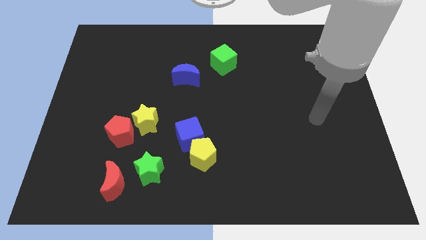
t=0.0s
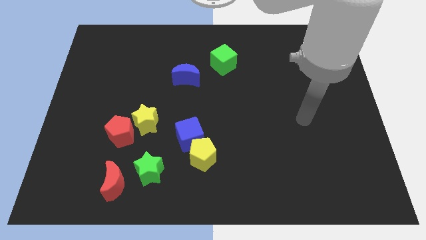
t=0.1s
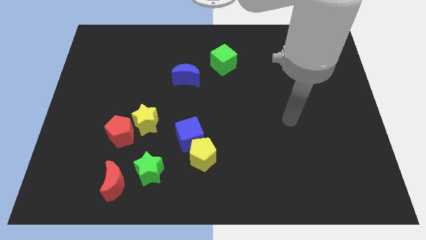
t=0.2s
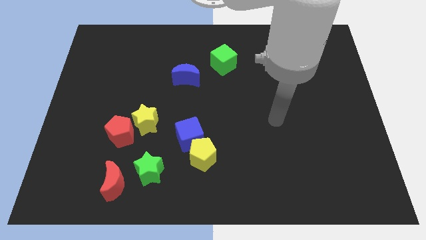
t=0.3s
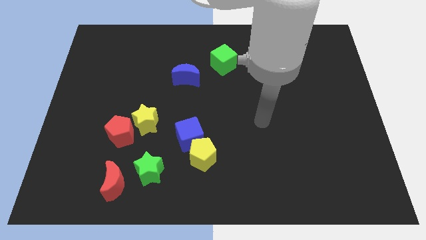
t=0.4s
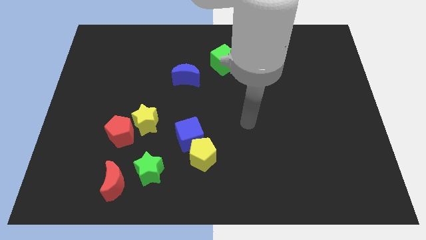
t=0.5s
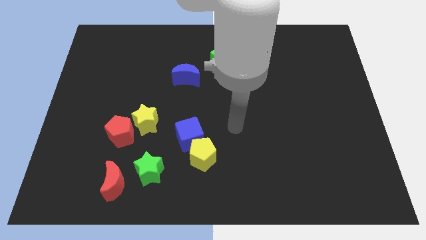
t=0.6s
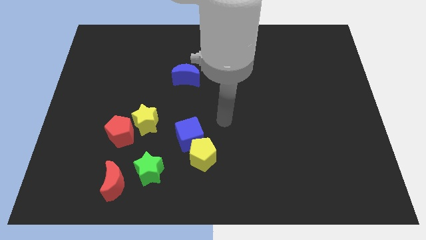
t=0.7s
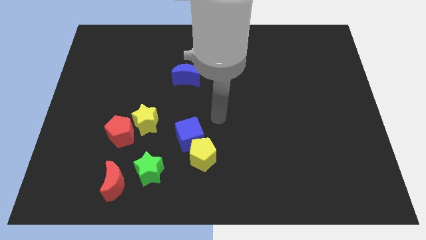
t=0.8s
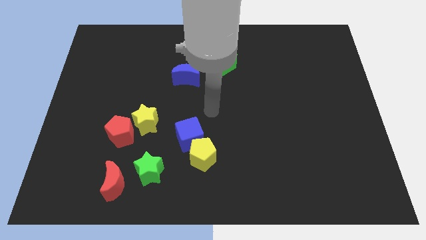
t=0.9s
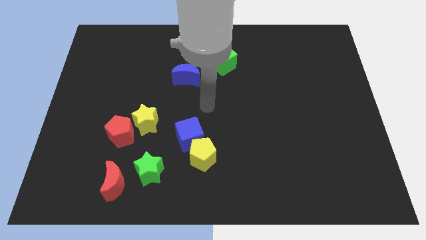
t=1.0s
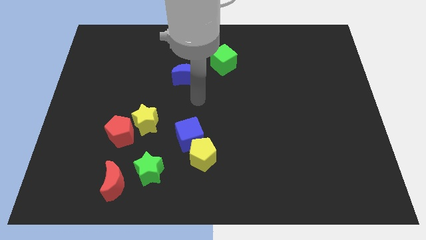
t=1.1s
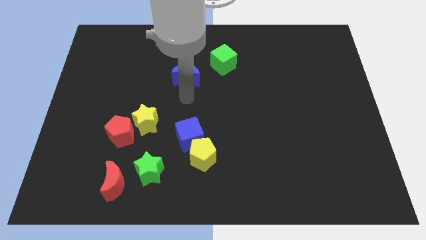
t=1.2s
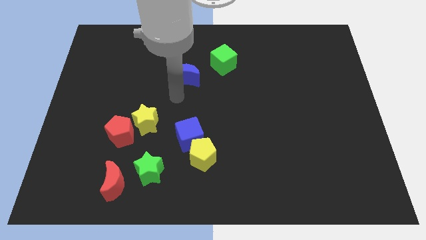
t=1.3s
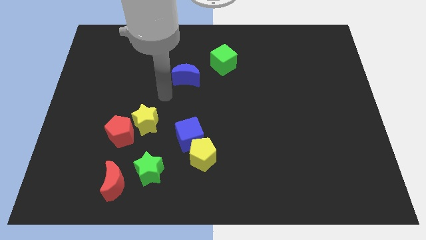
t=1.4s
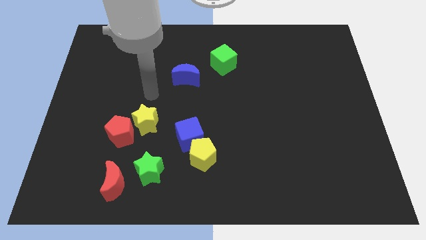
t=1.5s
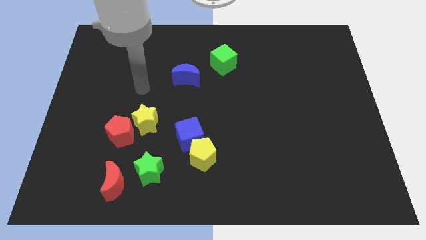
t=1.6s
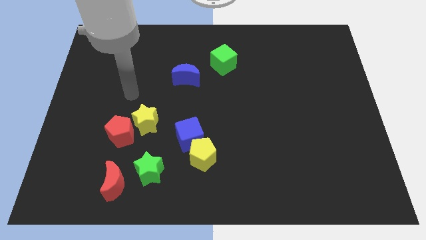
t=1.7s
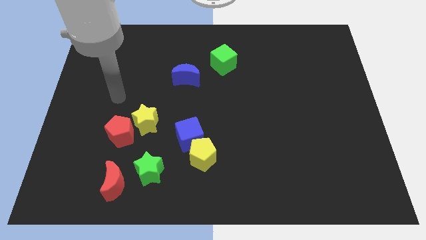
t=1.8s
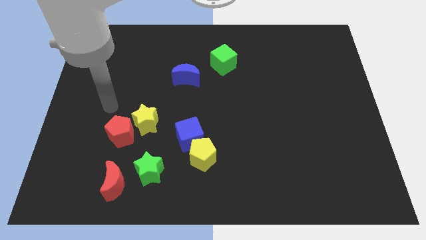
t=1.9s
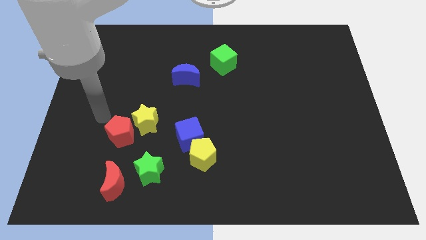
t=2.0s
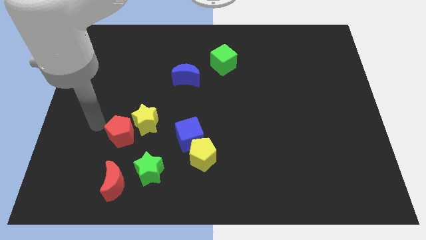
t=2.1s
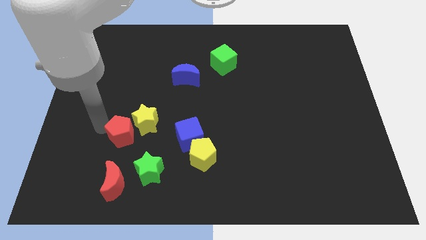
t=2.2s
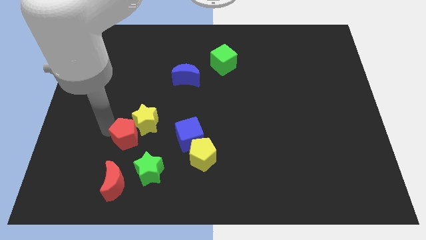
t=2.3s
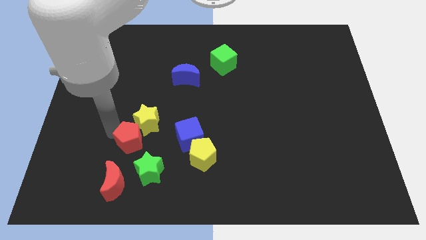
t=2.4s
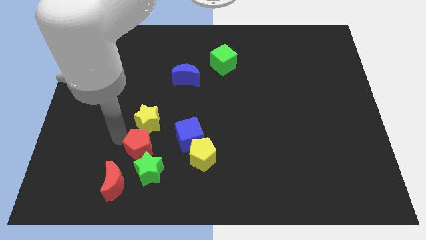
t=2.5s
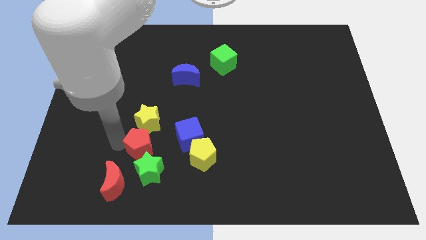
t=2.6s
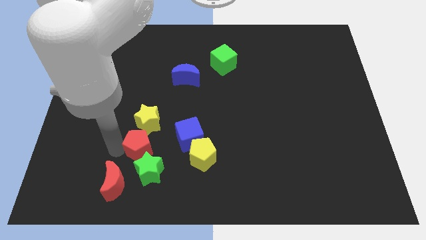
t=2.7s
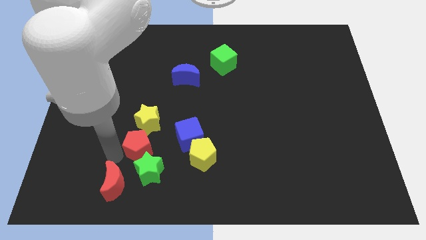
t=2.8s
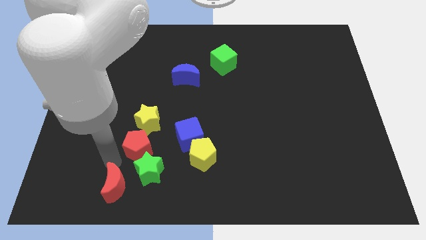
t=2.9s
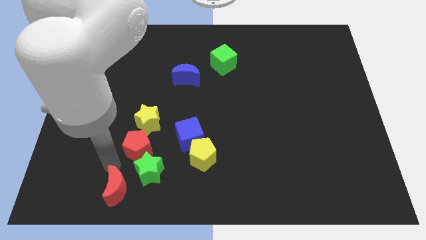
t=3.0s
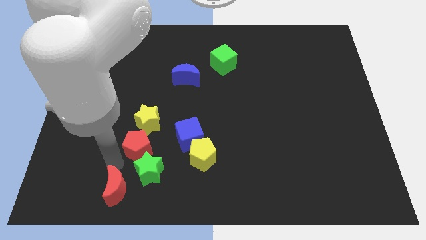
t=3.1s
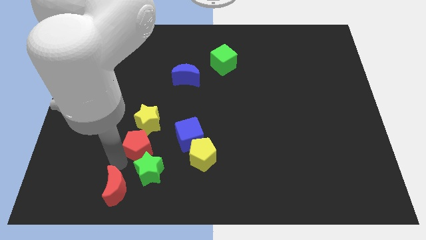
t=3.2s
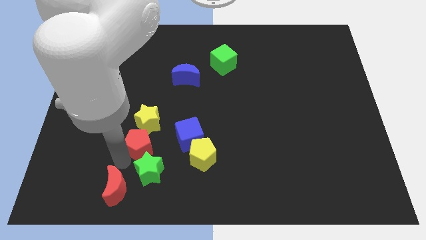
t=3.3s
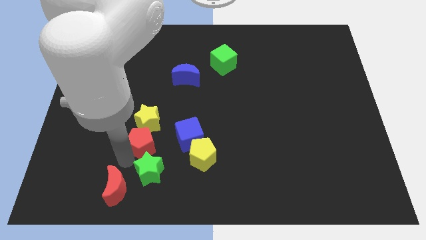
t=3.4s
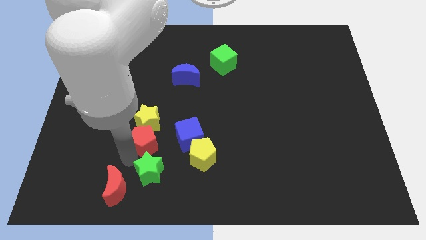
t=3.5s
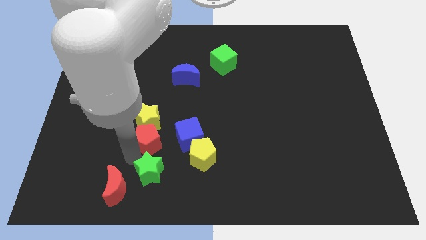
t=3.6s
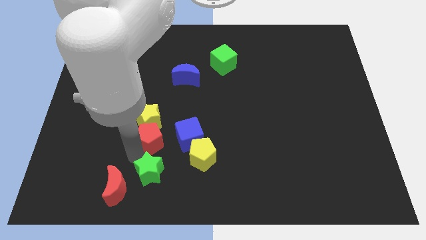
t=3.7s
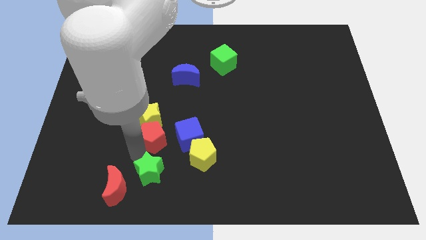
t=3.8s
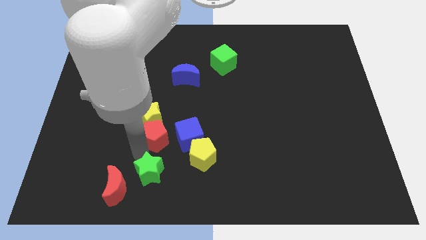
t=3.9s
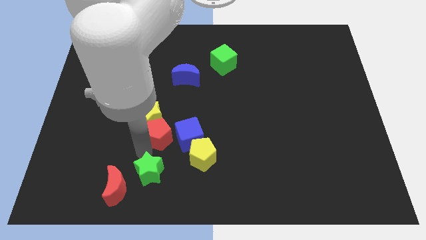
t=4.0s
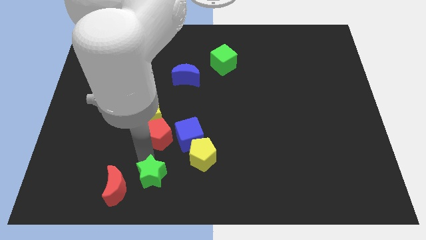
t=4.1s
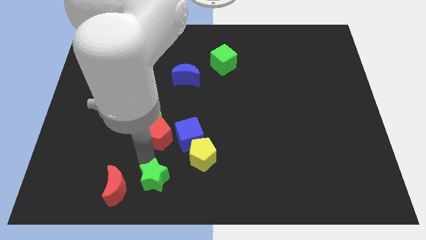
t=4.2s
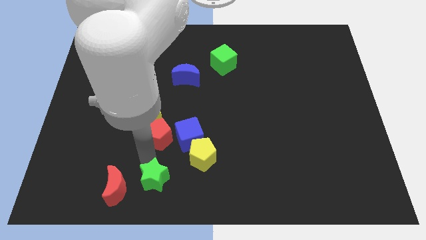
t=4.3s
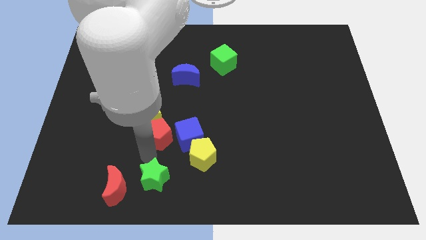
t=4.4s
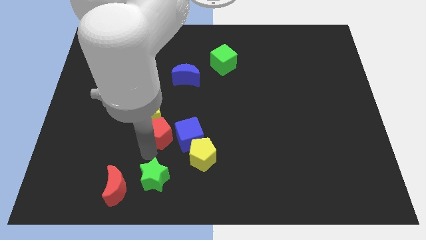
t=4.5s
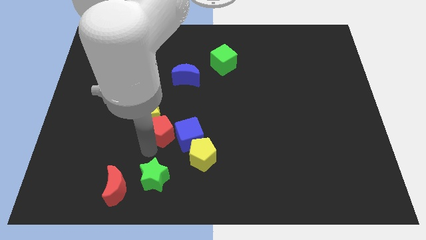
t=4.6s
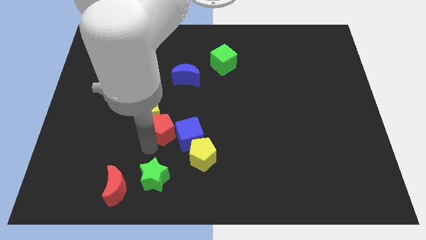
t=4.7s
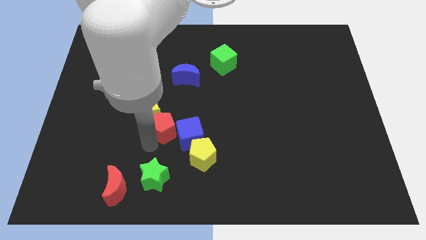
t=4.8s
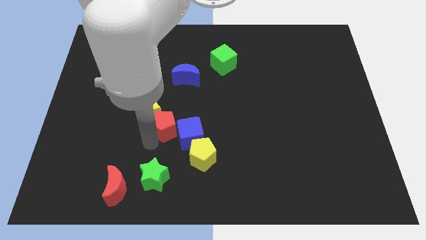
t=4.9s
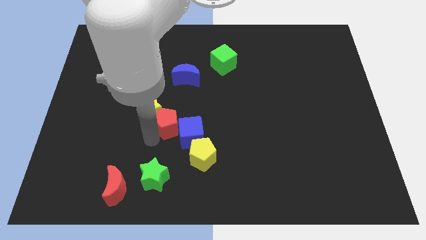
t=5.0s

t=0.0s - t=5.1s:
push the red pentagon to the middle
